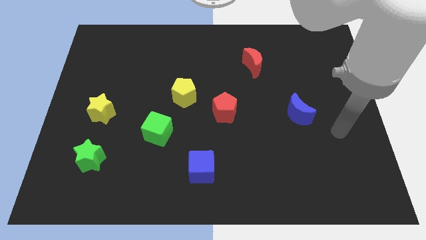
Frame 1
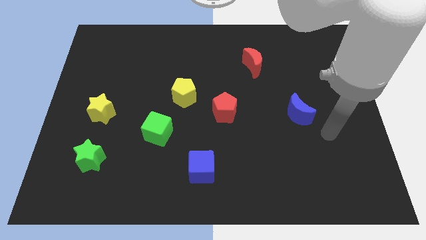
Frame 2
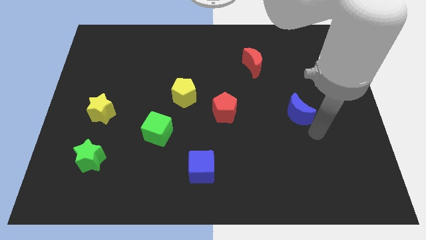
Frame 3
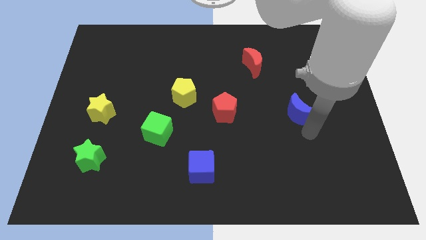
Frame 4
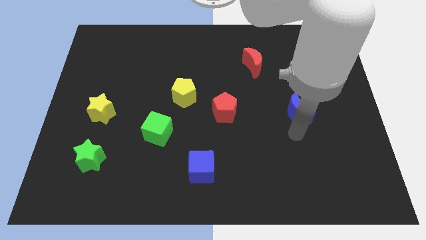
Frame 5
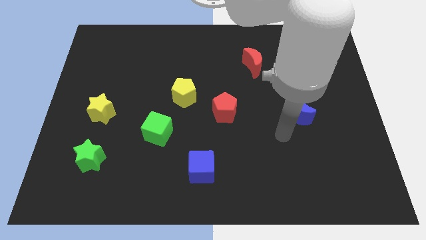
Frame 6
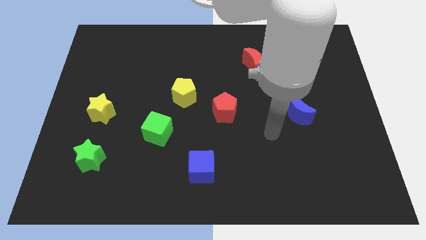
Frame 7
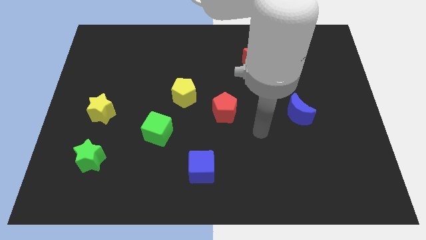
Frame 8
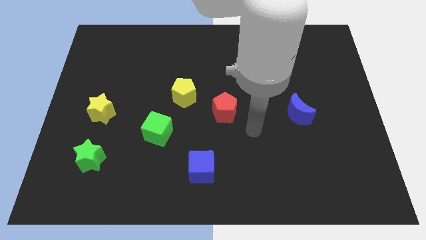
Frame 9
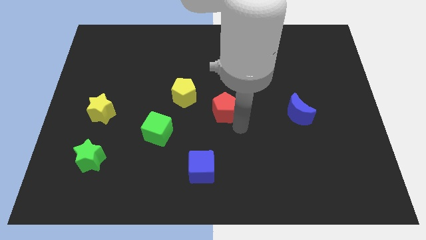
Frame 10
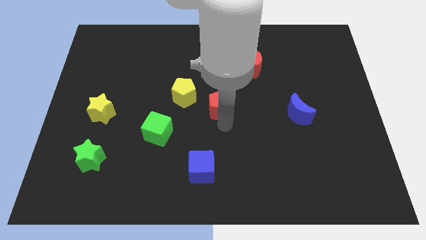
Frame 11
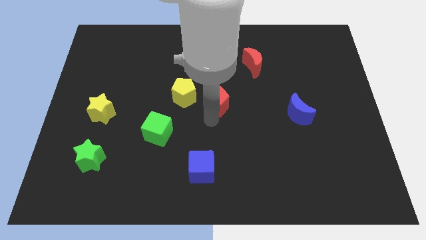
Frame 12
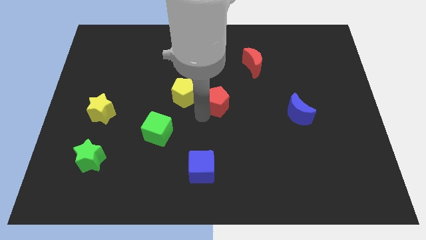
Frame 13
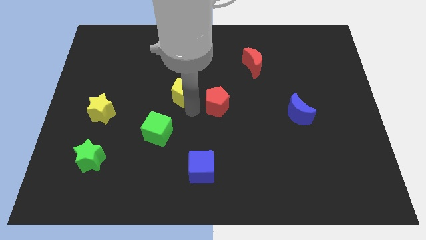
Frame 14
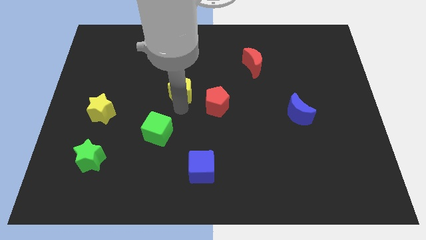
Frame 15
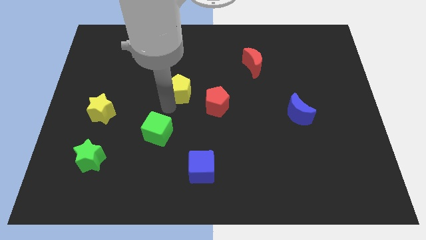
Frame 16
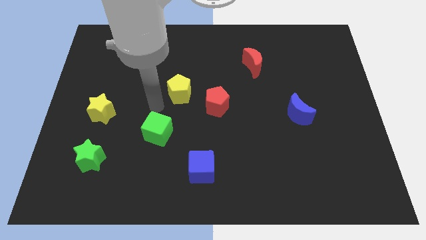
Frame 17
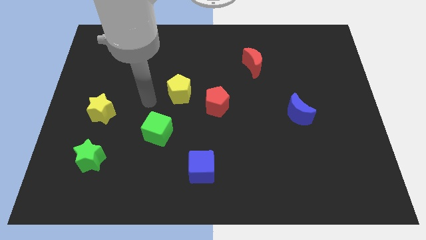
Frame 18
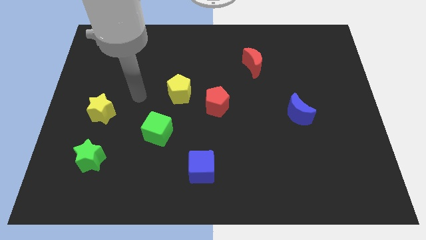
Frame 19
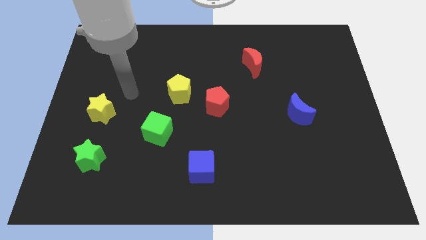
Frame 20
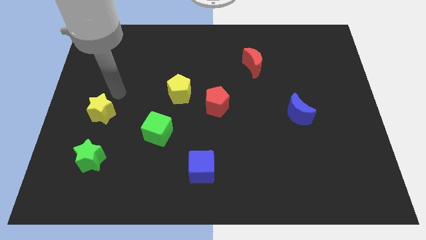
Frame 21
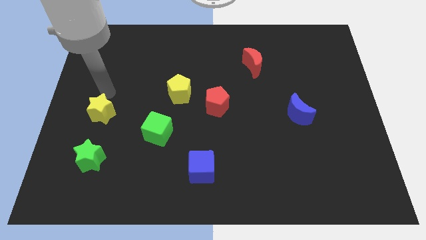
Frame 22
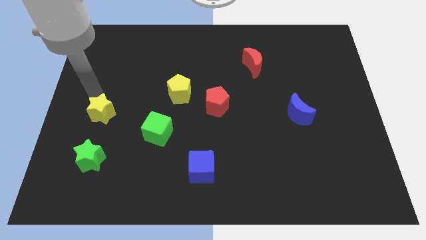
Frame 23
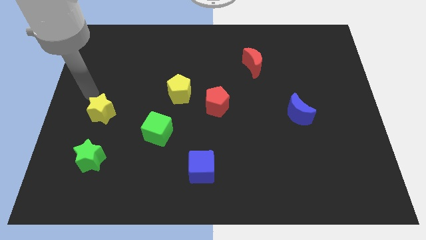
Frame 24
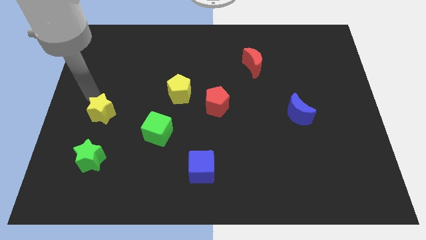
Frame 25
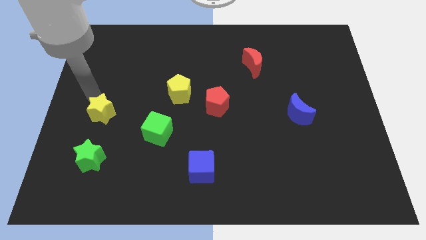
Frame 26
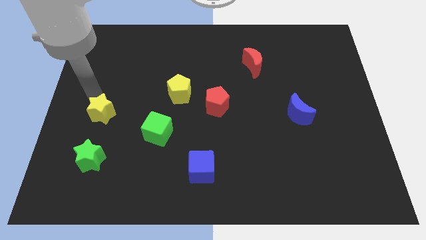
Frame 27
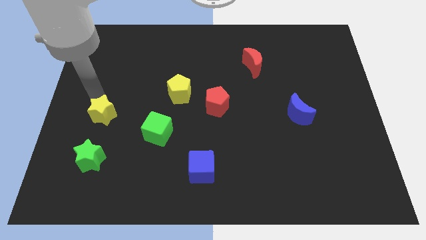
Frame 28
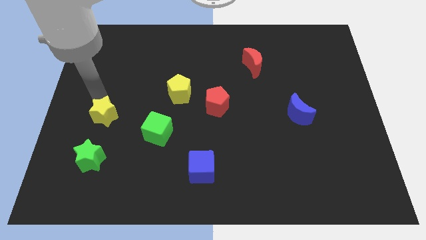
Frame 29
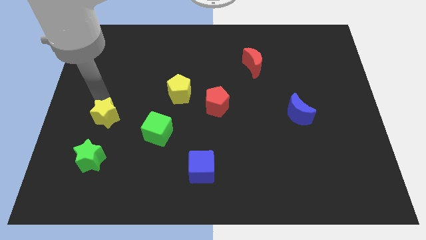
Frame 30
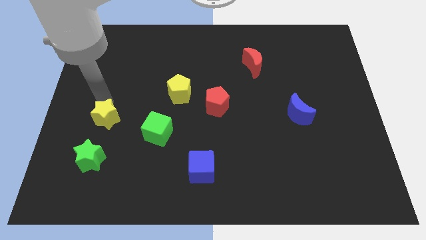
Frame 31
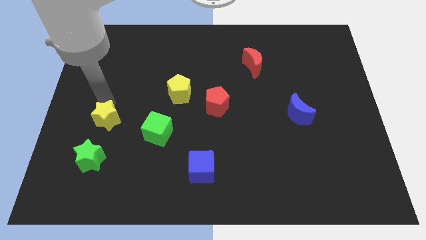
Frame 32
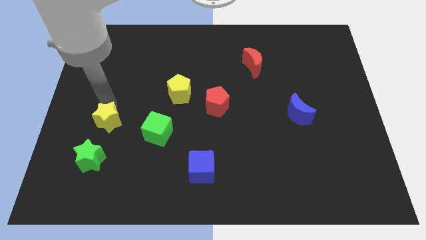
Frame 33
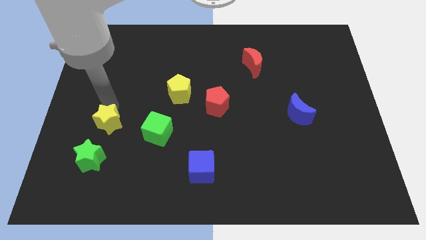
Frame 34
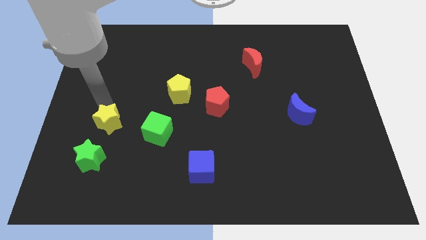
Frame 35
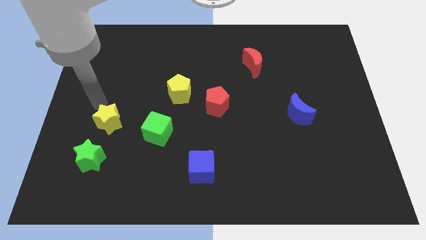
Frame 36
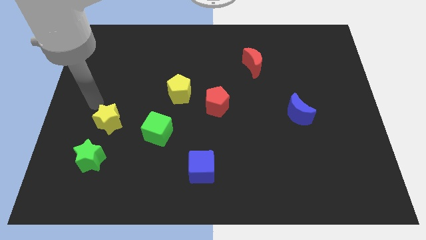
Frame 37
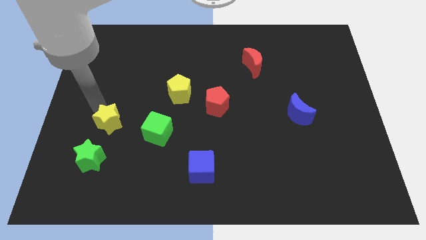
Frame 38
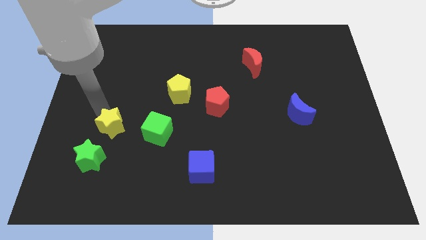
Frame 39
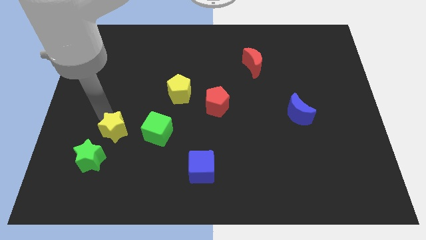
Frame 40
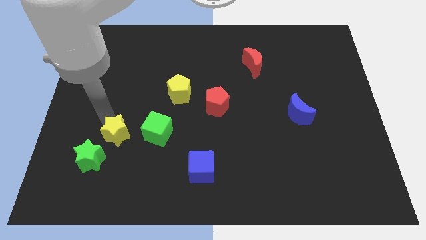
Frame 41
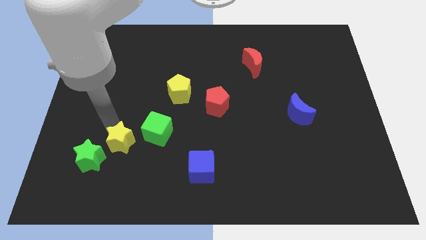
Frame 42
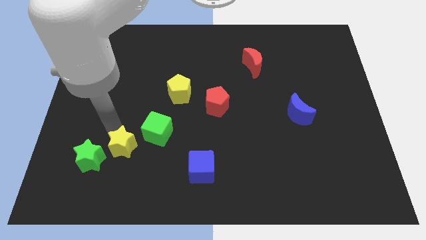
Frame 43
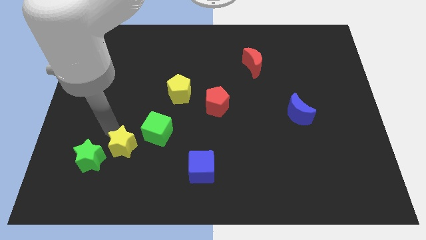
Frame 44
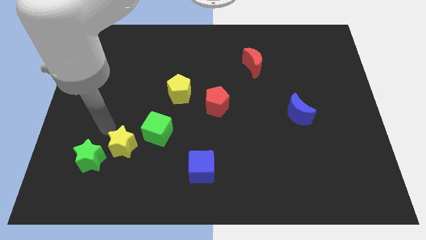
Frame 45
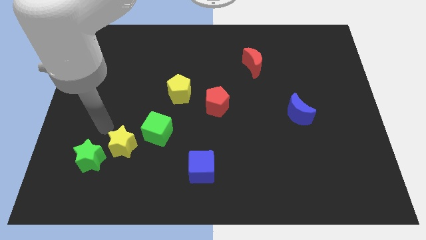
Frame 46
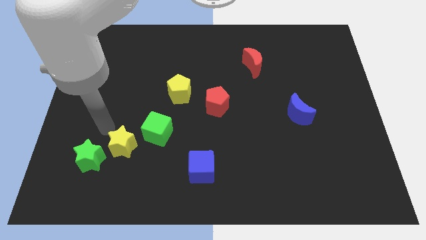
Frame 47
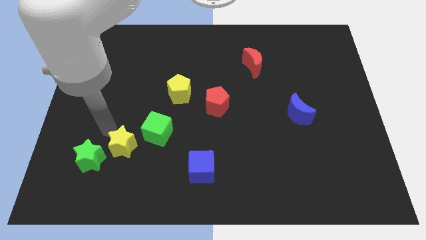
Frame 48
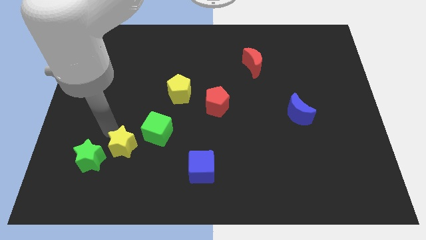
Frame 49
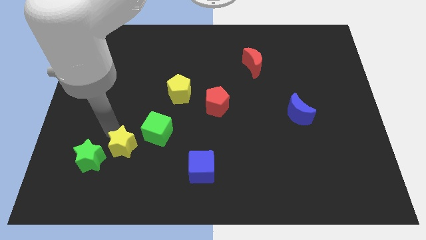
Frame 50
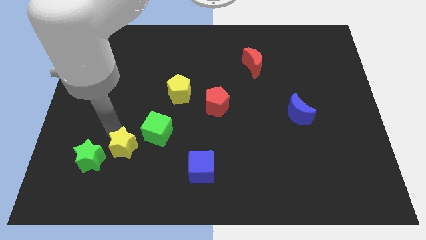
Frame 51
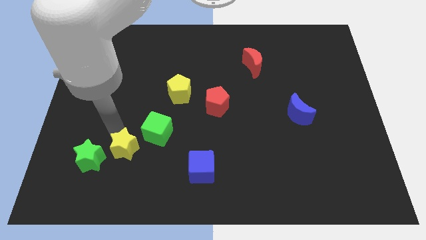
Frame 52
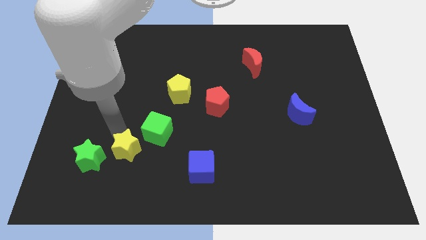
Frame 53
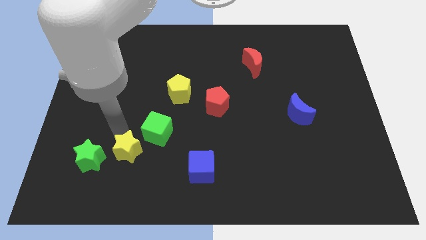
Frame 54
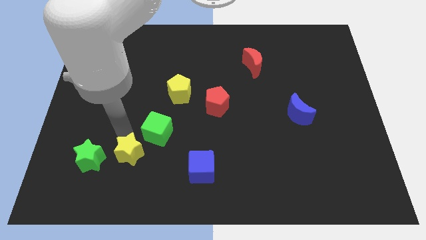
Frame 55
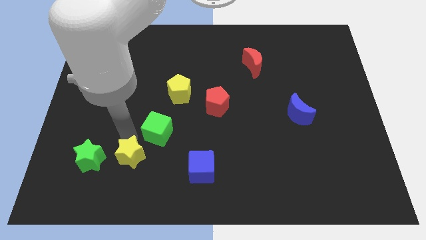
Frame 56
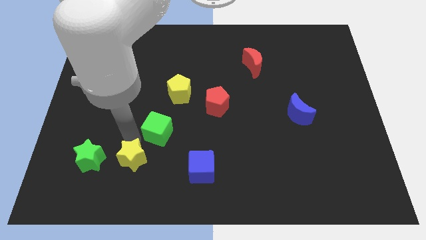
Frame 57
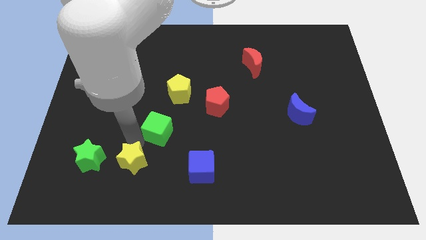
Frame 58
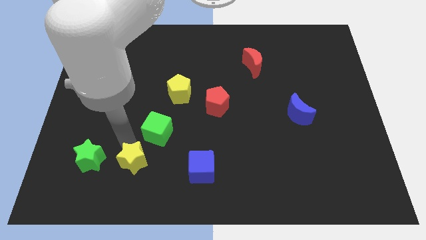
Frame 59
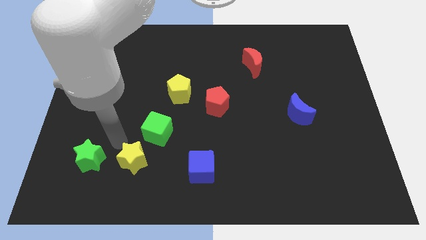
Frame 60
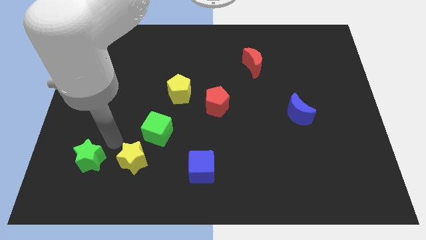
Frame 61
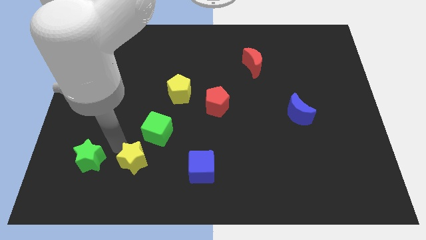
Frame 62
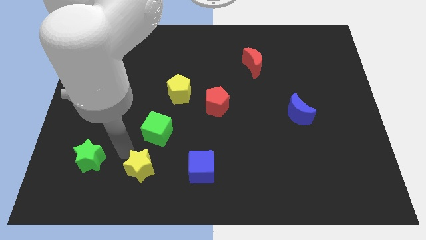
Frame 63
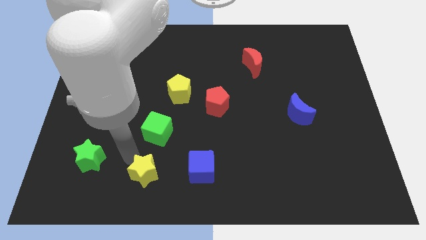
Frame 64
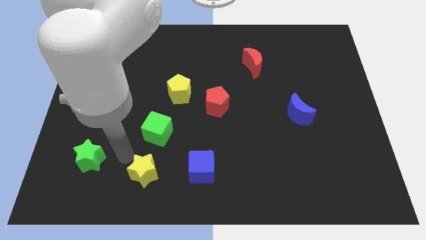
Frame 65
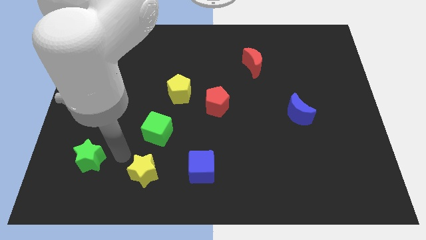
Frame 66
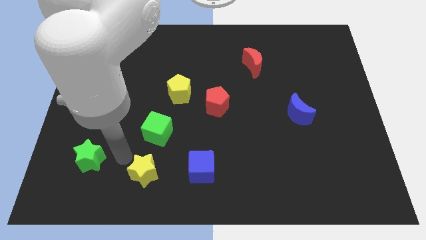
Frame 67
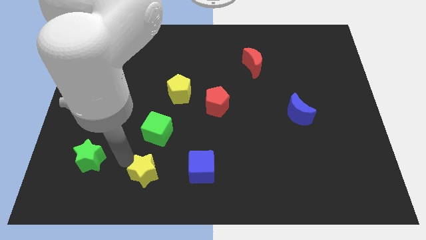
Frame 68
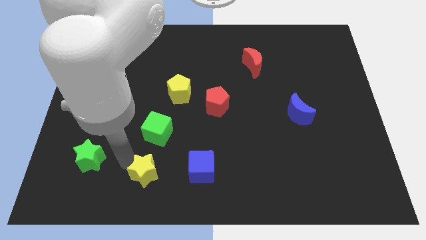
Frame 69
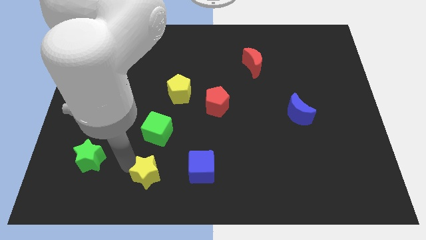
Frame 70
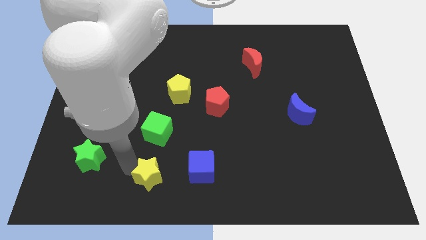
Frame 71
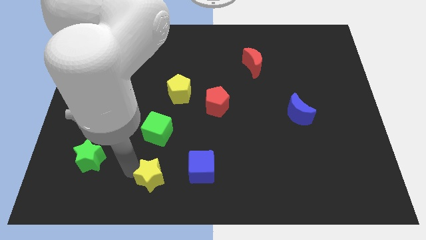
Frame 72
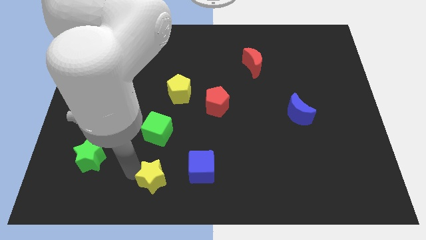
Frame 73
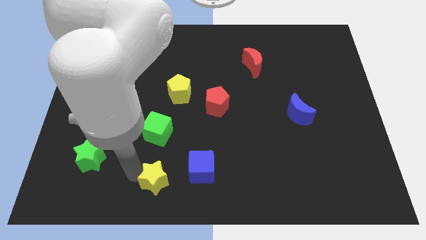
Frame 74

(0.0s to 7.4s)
slide the yellow star to the bottom side
